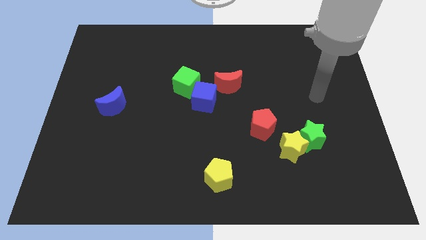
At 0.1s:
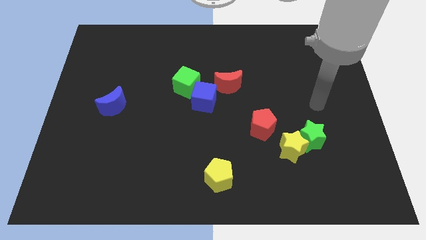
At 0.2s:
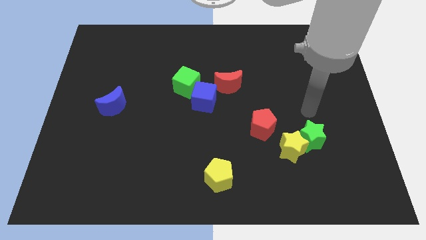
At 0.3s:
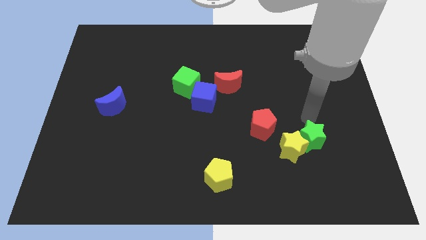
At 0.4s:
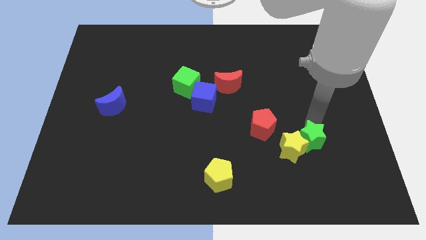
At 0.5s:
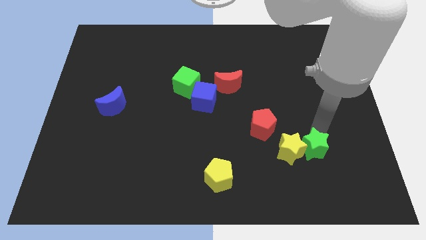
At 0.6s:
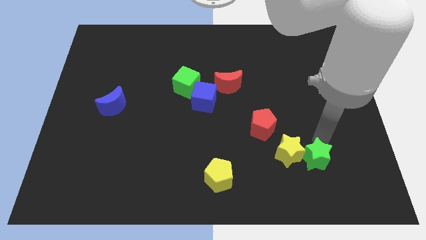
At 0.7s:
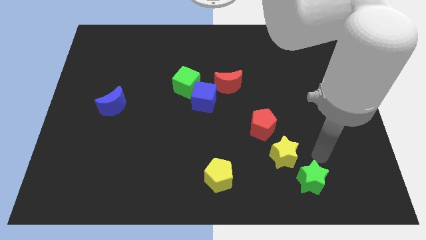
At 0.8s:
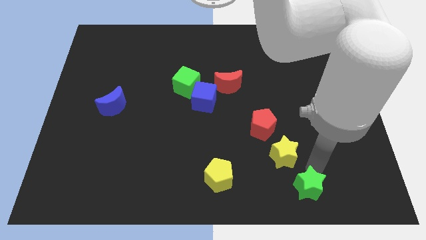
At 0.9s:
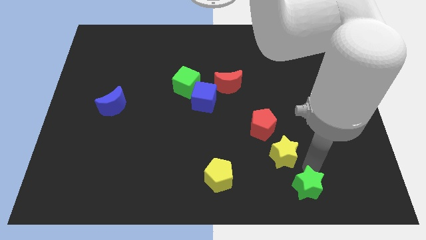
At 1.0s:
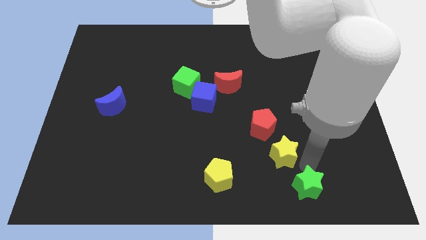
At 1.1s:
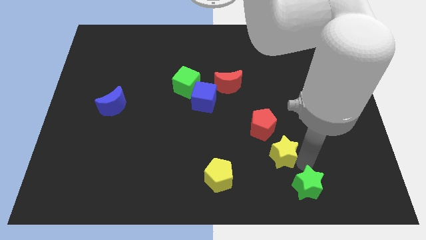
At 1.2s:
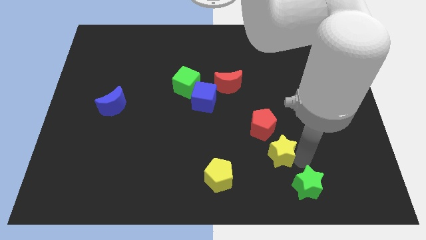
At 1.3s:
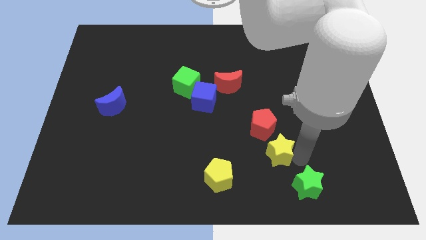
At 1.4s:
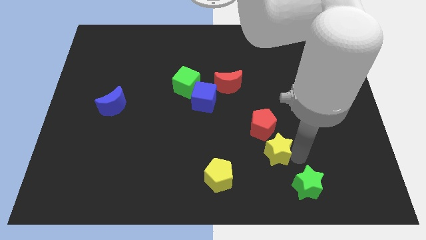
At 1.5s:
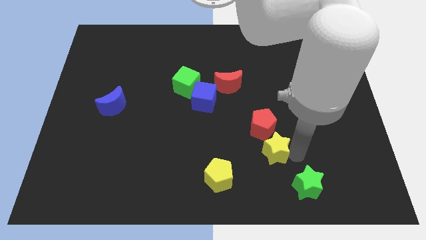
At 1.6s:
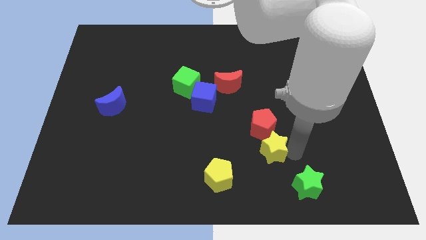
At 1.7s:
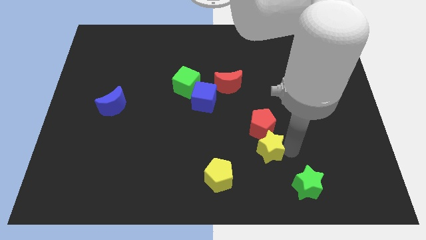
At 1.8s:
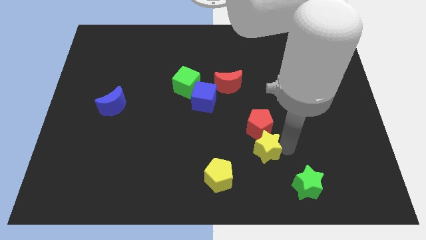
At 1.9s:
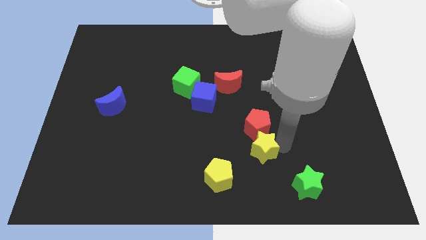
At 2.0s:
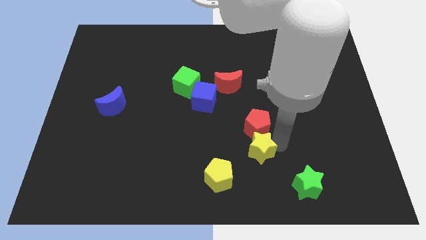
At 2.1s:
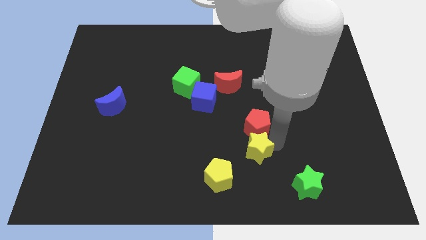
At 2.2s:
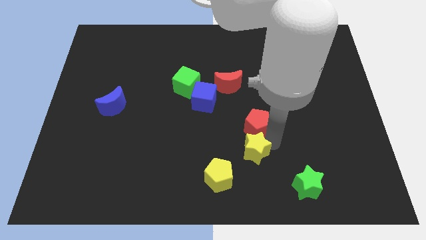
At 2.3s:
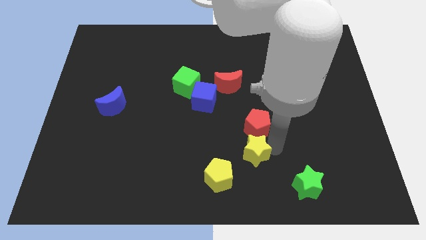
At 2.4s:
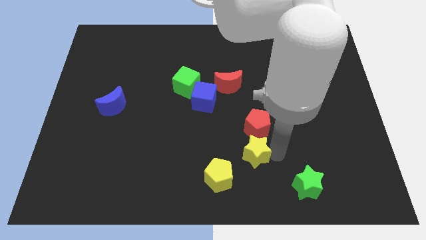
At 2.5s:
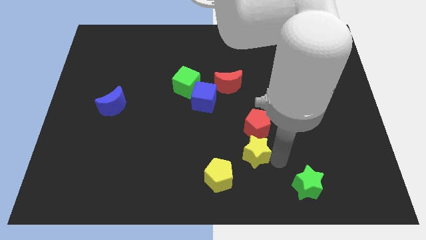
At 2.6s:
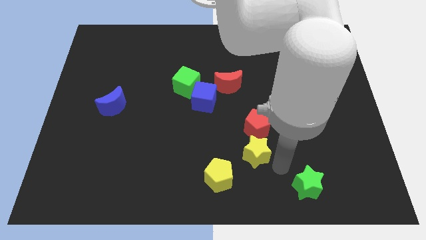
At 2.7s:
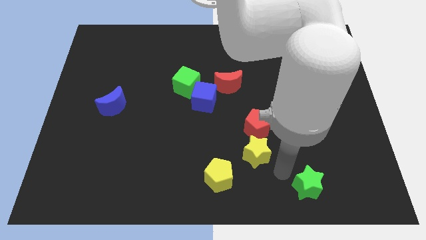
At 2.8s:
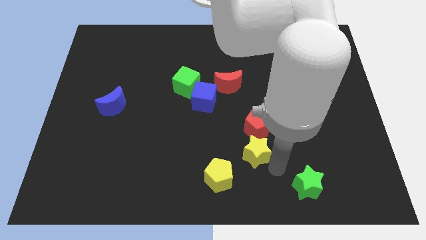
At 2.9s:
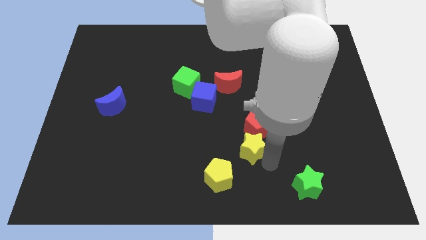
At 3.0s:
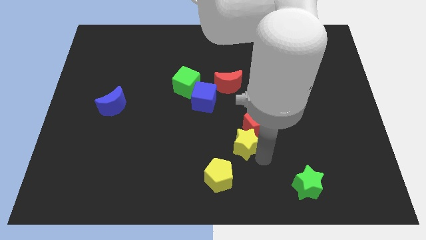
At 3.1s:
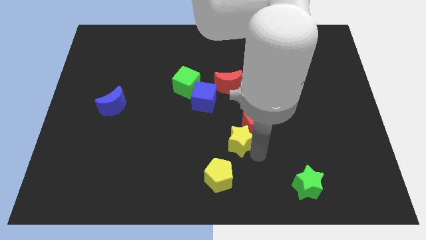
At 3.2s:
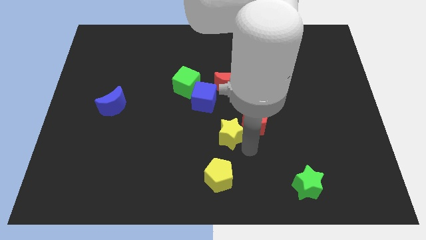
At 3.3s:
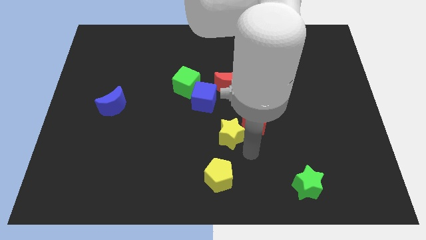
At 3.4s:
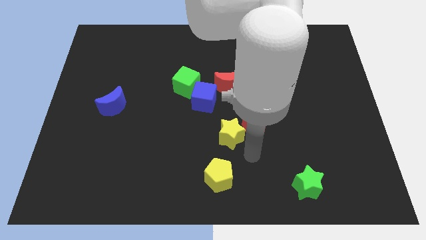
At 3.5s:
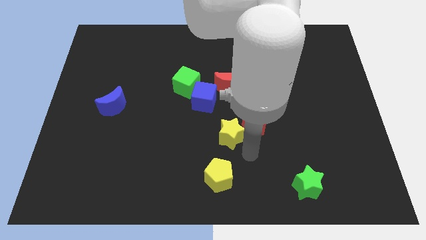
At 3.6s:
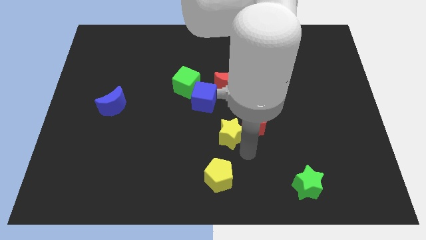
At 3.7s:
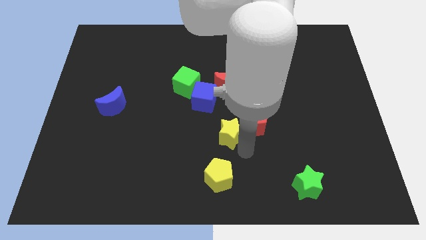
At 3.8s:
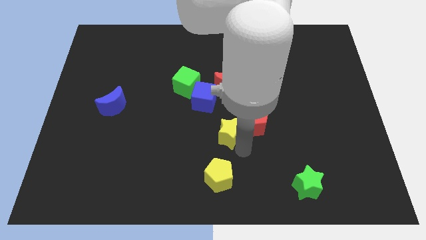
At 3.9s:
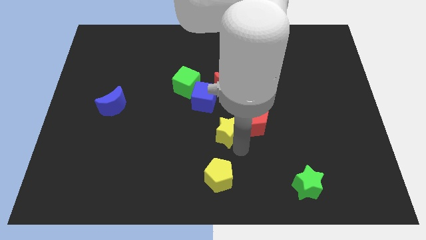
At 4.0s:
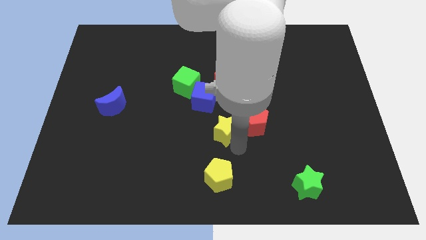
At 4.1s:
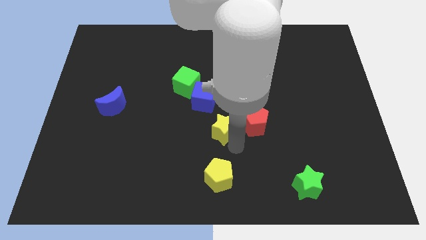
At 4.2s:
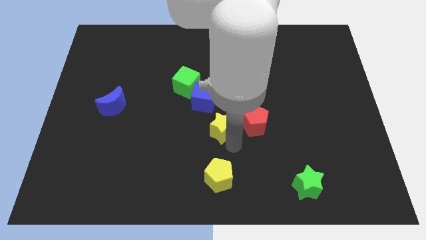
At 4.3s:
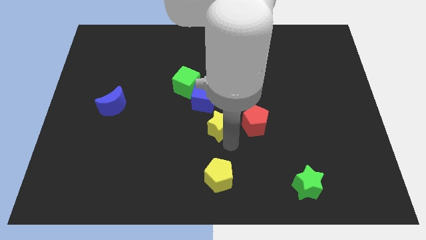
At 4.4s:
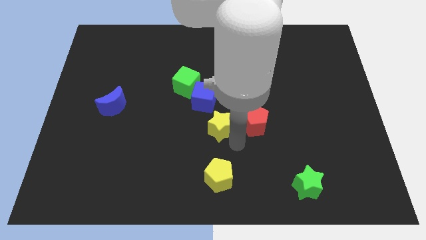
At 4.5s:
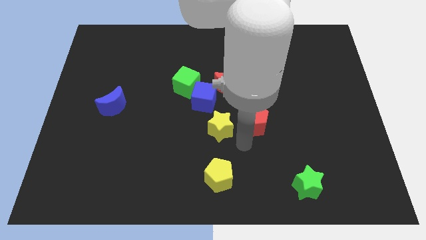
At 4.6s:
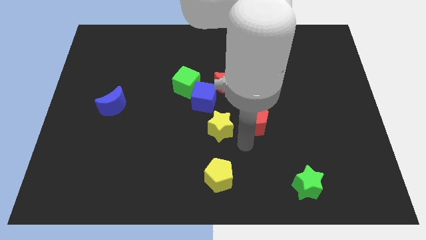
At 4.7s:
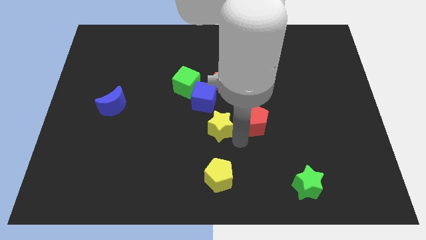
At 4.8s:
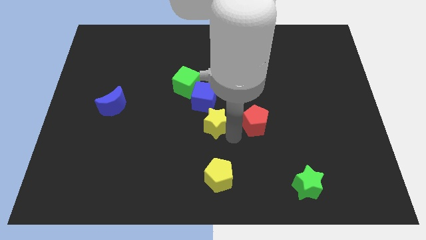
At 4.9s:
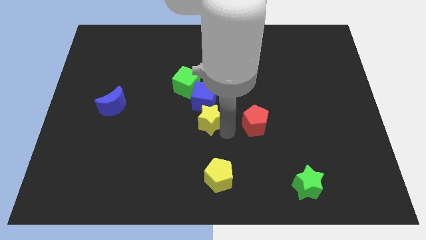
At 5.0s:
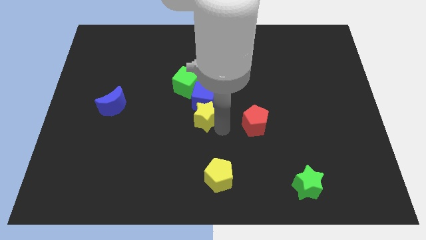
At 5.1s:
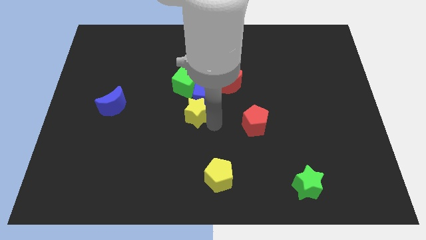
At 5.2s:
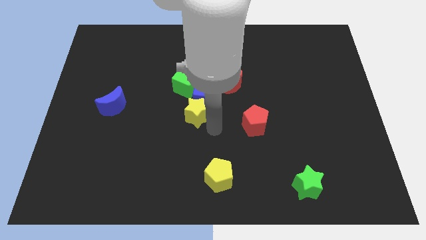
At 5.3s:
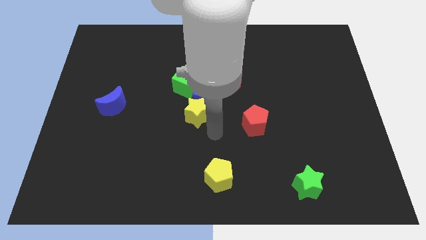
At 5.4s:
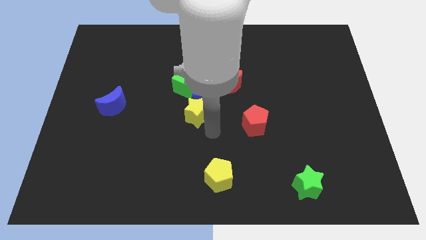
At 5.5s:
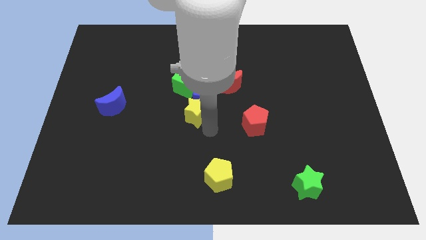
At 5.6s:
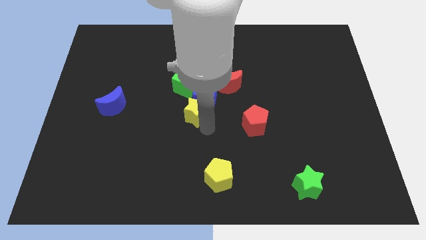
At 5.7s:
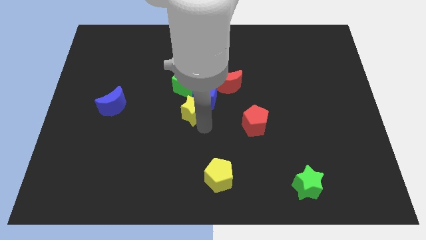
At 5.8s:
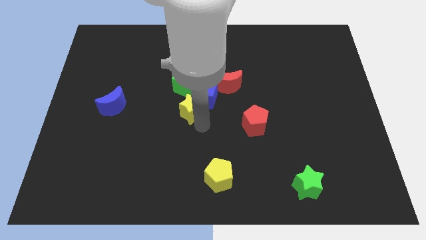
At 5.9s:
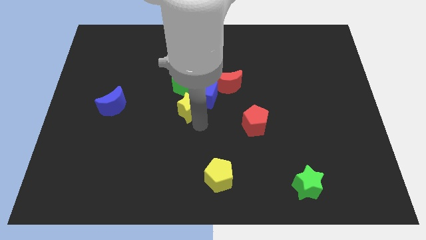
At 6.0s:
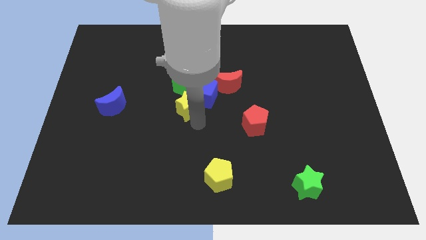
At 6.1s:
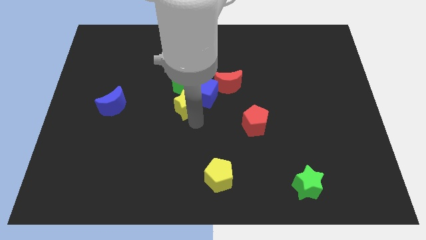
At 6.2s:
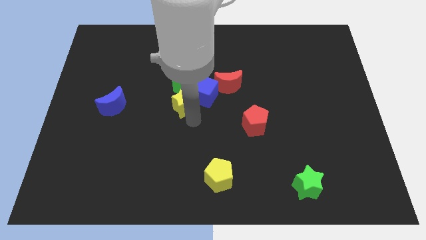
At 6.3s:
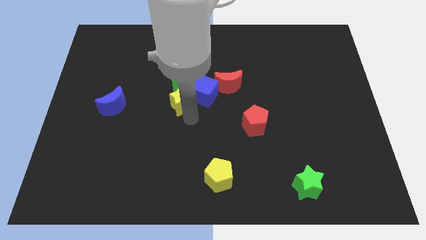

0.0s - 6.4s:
slide the yellow star next to the green cube

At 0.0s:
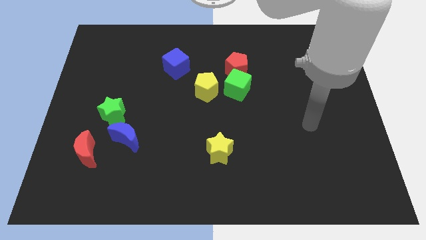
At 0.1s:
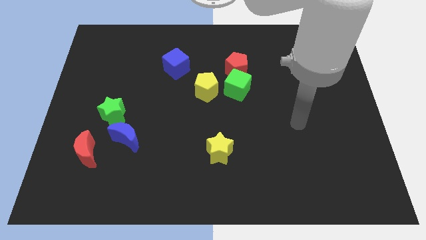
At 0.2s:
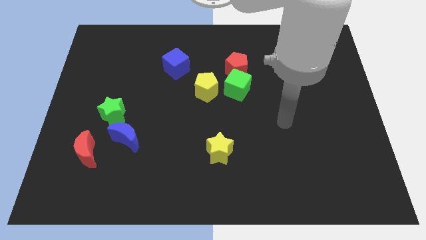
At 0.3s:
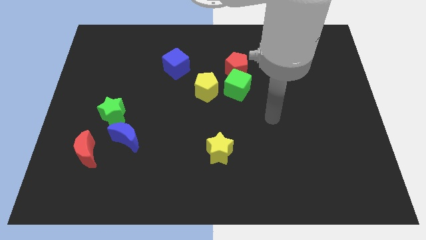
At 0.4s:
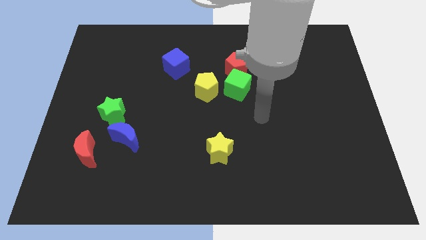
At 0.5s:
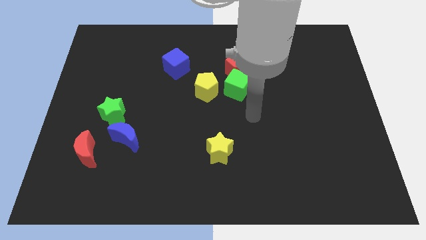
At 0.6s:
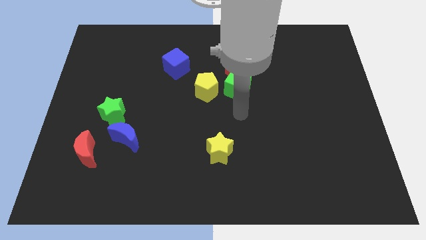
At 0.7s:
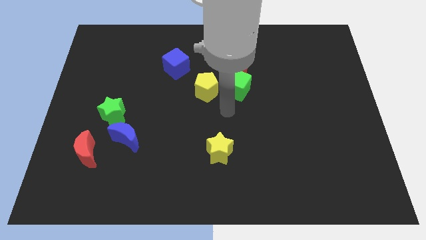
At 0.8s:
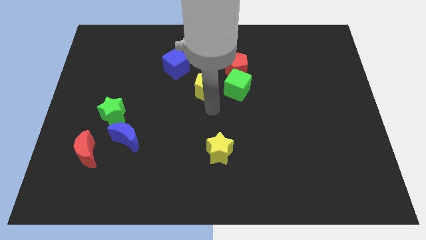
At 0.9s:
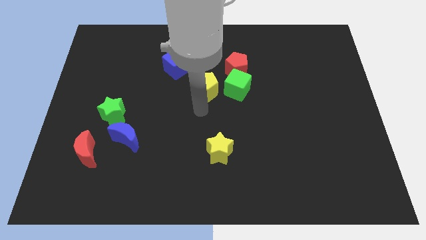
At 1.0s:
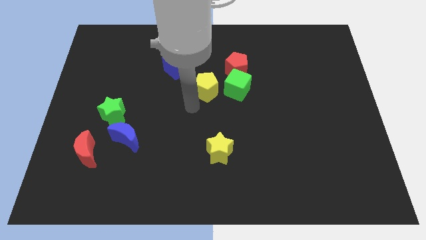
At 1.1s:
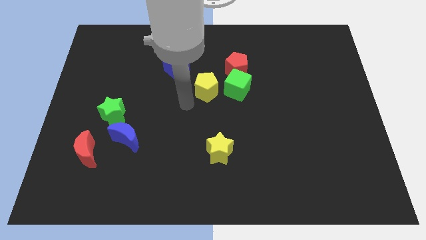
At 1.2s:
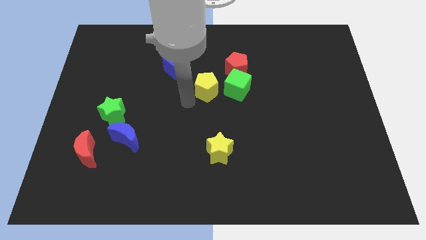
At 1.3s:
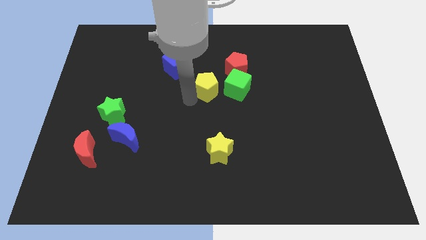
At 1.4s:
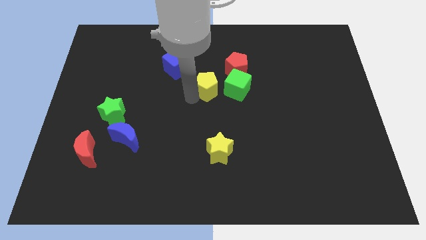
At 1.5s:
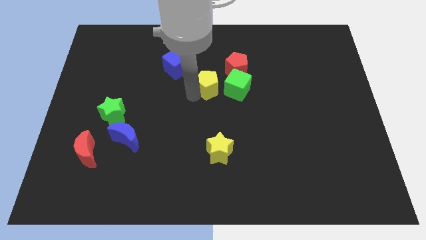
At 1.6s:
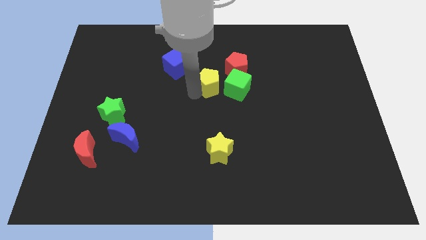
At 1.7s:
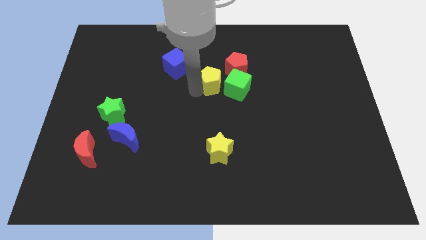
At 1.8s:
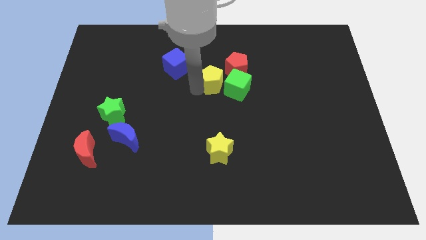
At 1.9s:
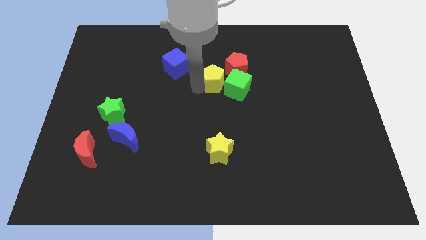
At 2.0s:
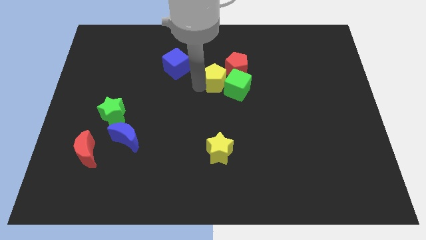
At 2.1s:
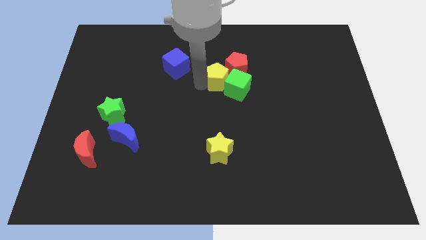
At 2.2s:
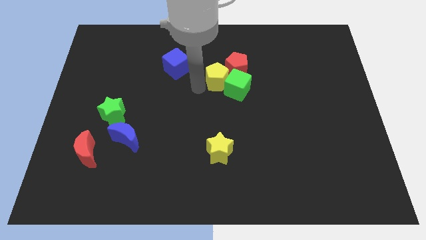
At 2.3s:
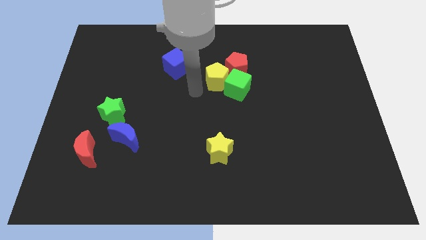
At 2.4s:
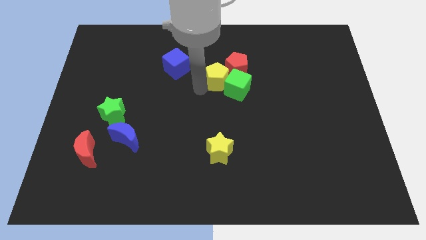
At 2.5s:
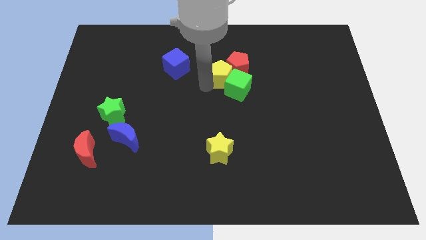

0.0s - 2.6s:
push the yellow pentagon to the red pentagon
